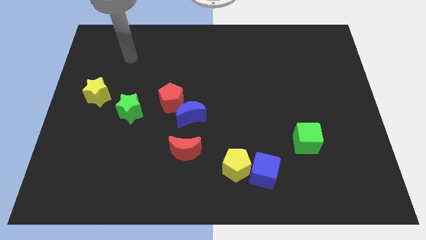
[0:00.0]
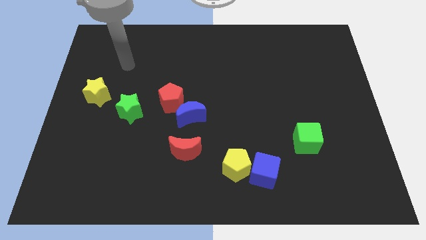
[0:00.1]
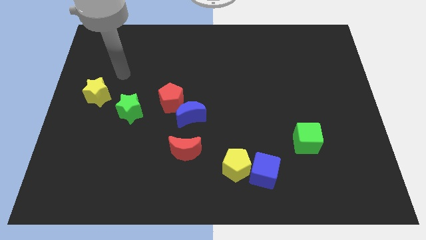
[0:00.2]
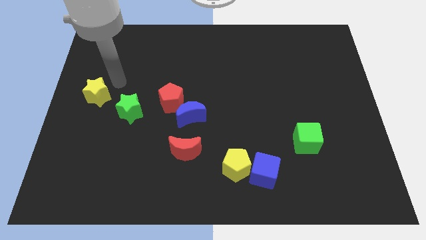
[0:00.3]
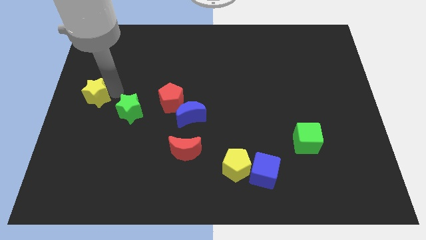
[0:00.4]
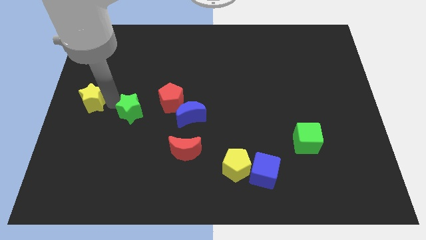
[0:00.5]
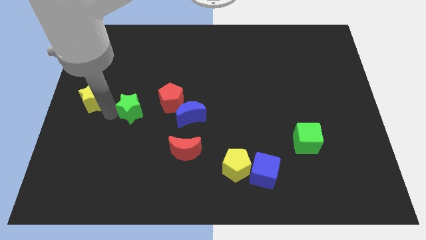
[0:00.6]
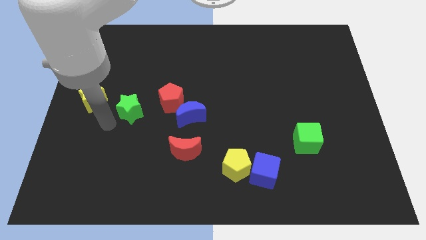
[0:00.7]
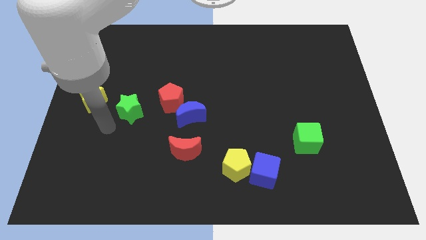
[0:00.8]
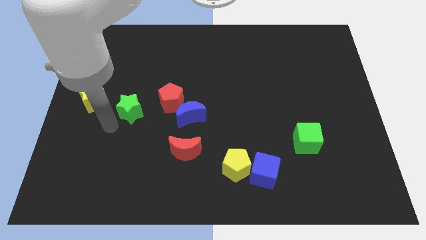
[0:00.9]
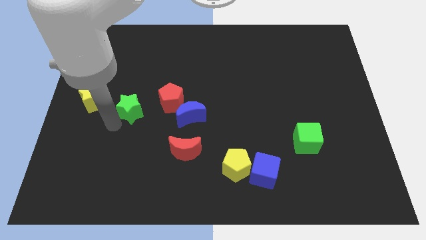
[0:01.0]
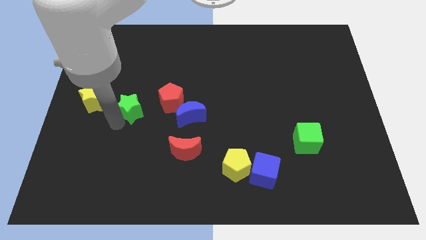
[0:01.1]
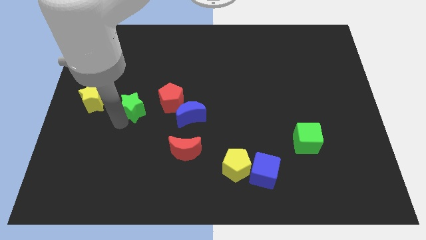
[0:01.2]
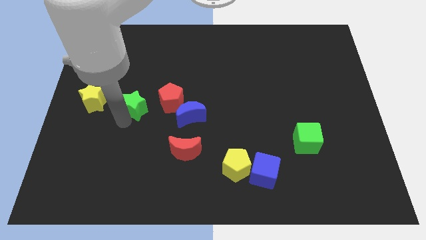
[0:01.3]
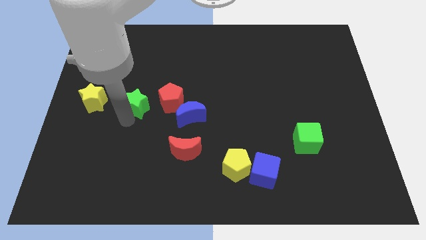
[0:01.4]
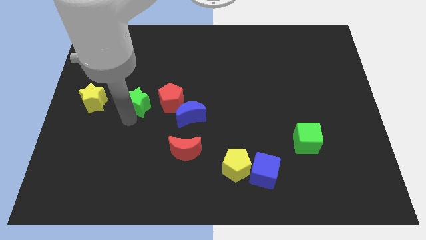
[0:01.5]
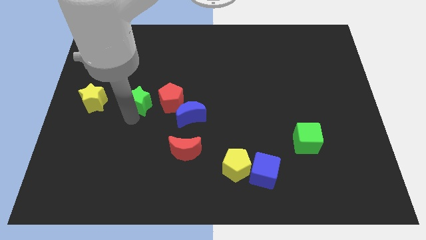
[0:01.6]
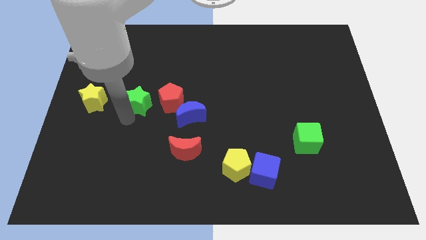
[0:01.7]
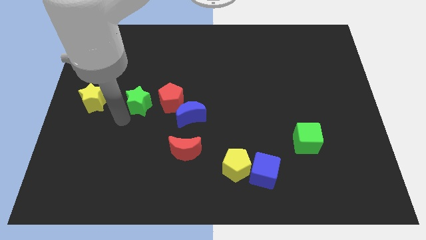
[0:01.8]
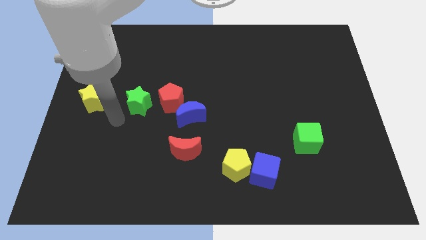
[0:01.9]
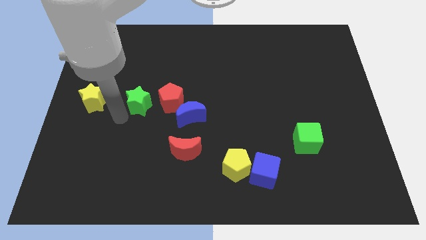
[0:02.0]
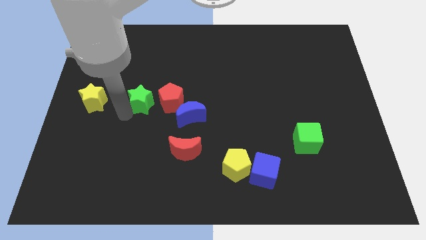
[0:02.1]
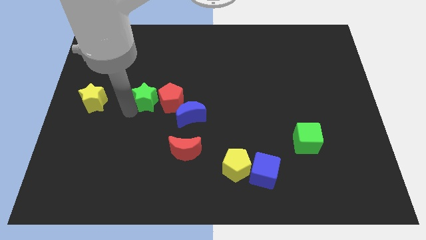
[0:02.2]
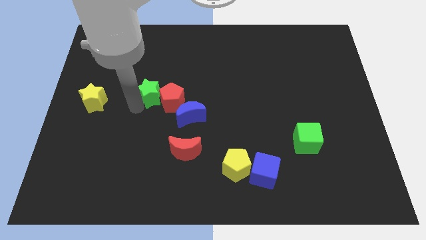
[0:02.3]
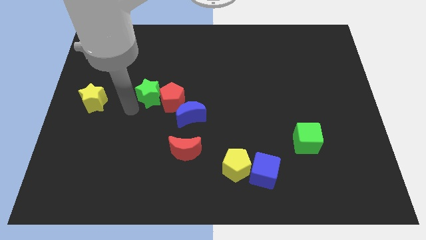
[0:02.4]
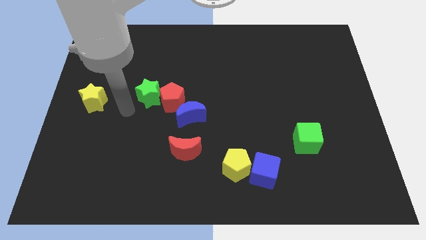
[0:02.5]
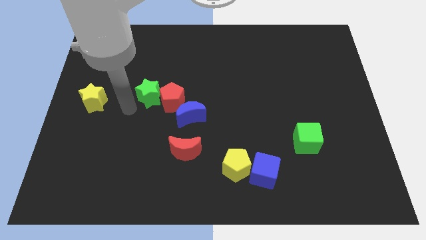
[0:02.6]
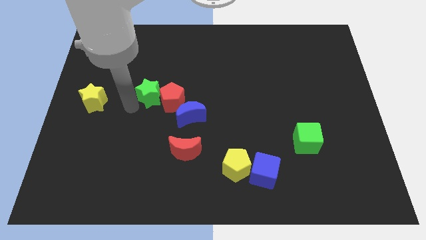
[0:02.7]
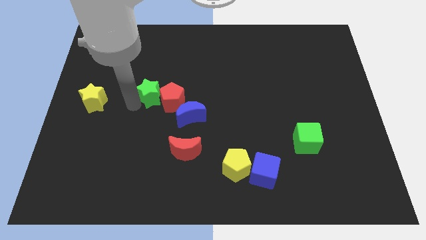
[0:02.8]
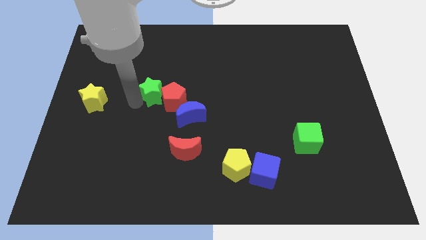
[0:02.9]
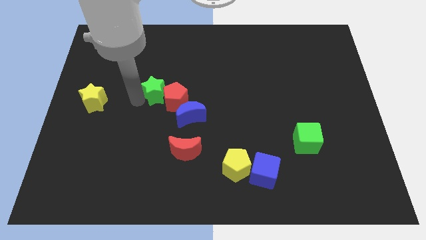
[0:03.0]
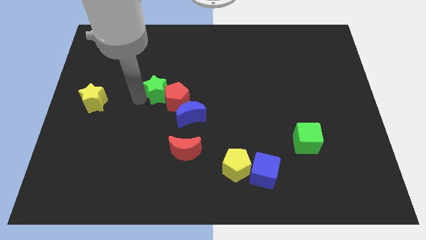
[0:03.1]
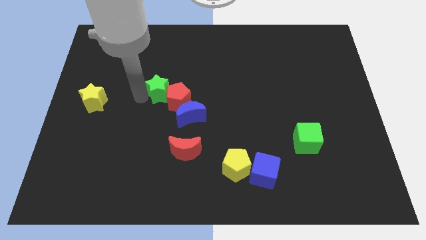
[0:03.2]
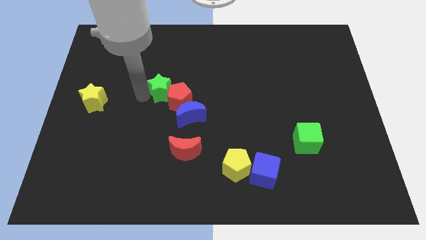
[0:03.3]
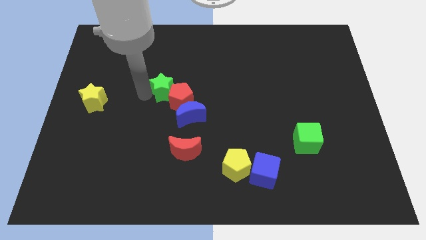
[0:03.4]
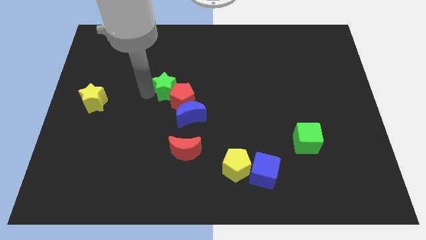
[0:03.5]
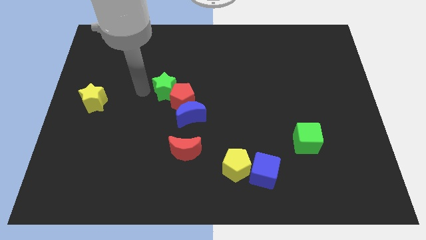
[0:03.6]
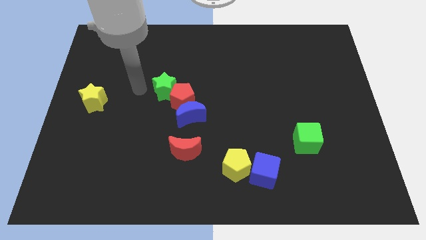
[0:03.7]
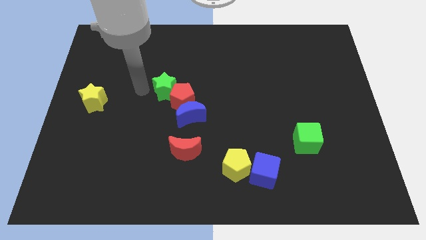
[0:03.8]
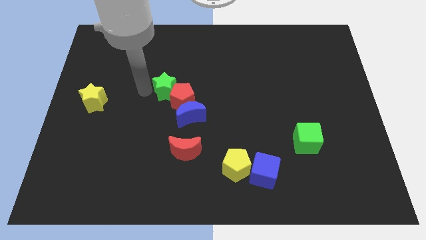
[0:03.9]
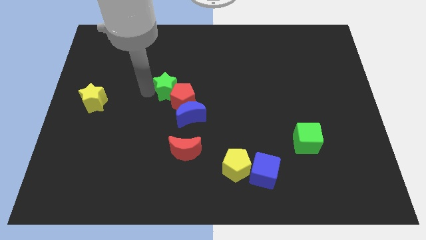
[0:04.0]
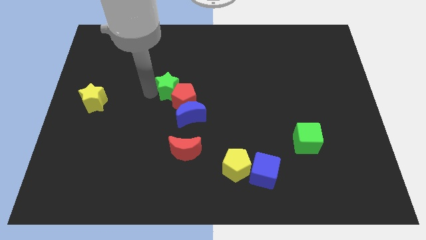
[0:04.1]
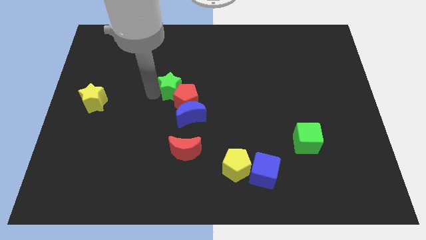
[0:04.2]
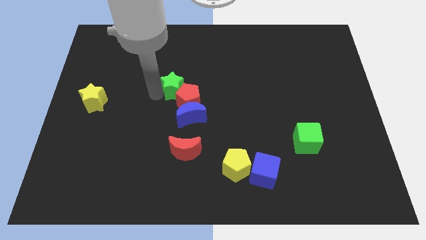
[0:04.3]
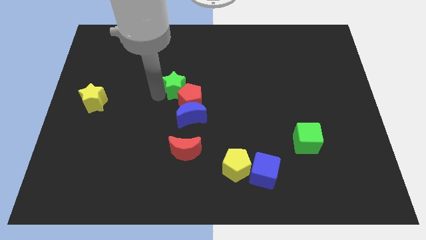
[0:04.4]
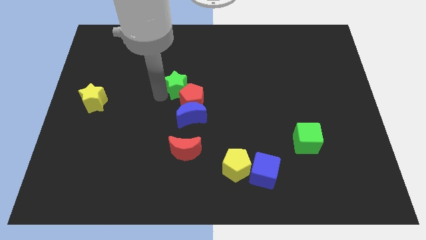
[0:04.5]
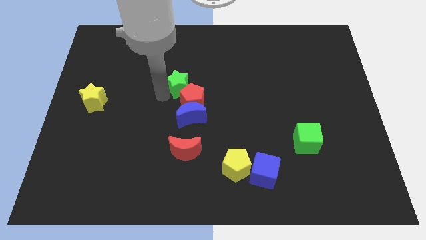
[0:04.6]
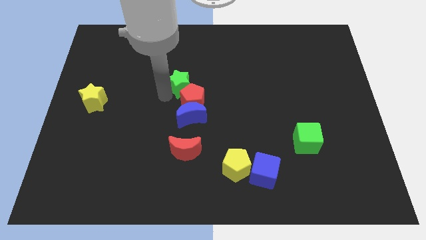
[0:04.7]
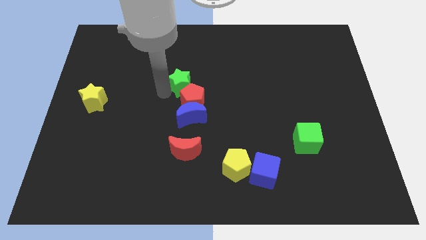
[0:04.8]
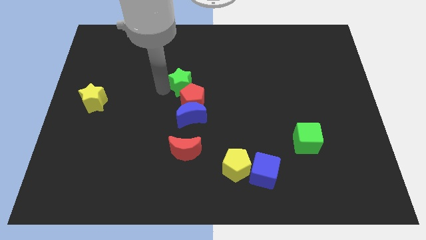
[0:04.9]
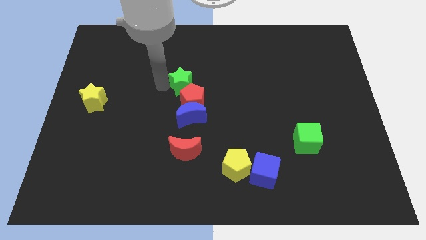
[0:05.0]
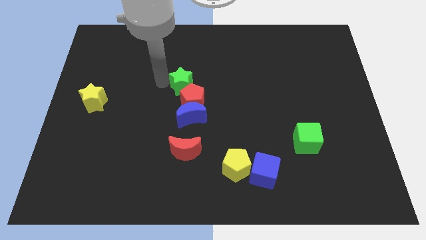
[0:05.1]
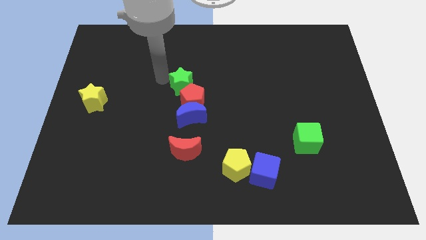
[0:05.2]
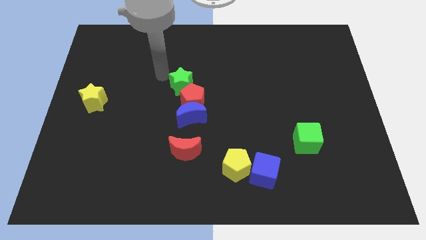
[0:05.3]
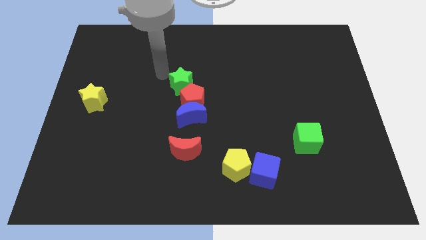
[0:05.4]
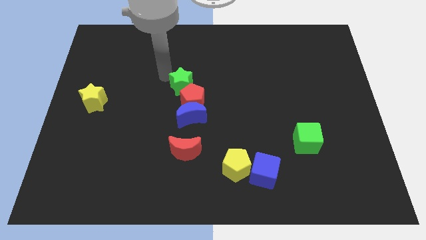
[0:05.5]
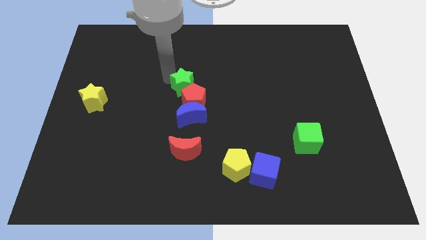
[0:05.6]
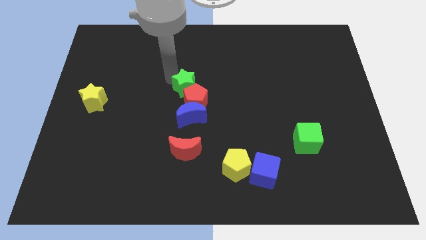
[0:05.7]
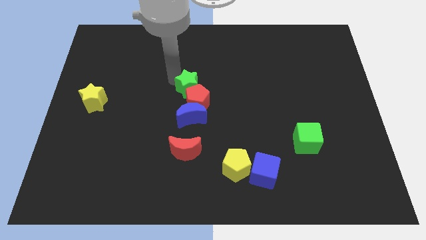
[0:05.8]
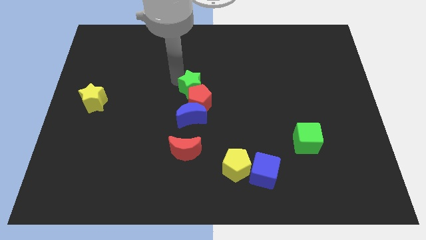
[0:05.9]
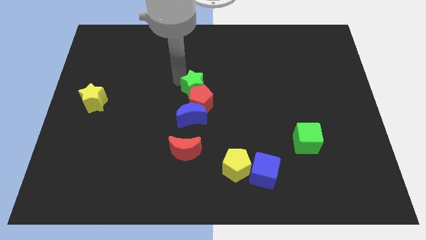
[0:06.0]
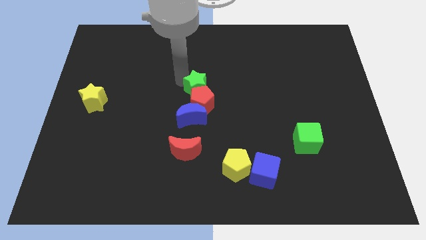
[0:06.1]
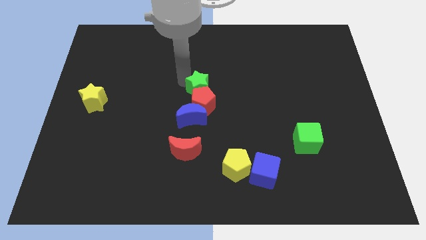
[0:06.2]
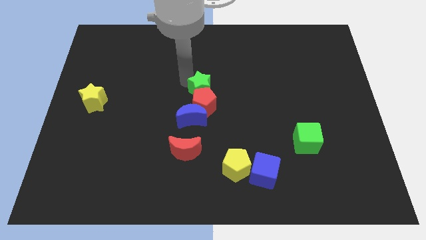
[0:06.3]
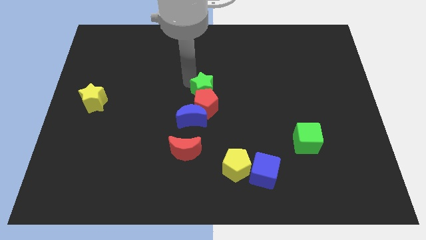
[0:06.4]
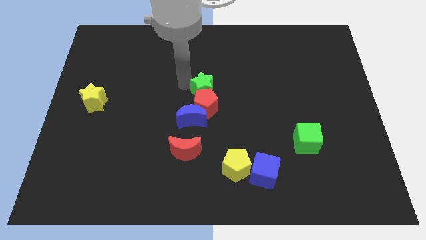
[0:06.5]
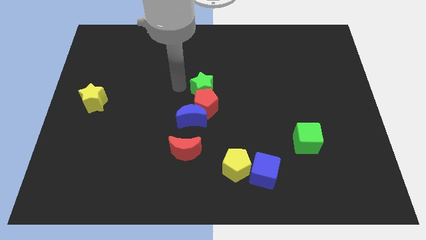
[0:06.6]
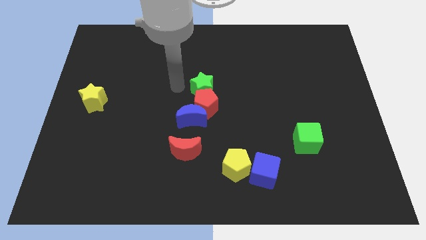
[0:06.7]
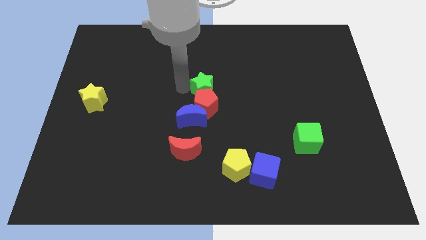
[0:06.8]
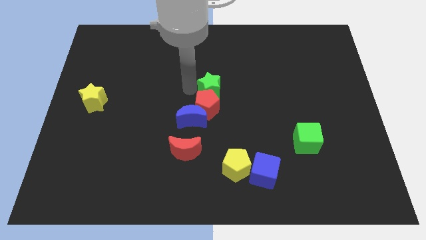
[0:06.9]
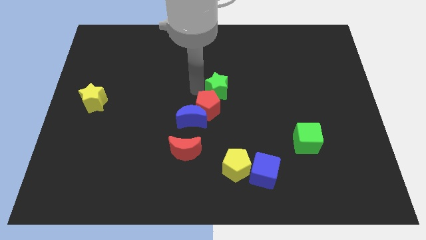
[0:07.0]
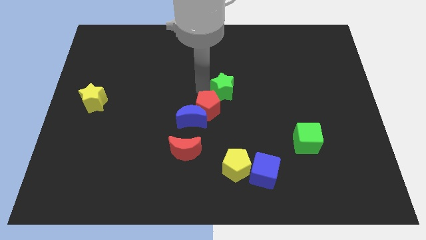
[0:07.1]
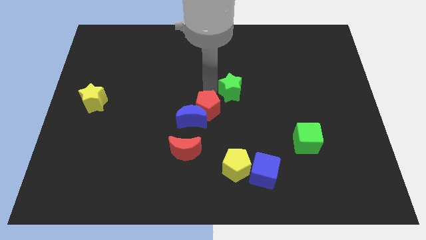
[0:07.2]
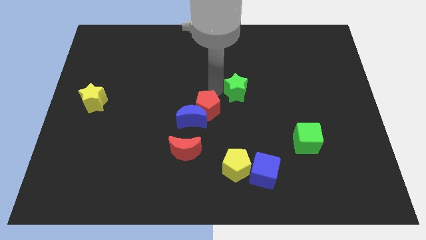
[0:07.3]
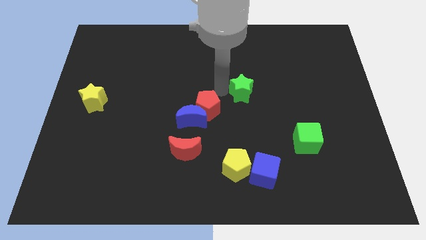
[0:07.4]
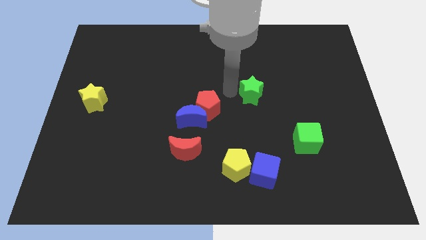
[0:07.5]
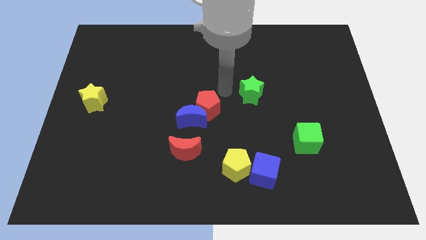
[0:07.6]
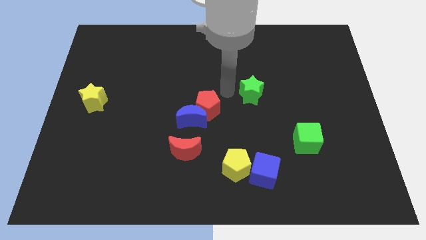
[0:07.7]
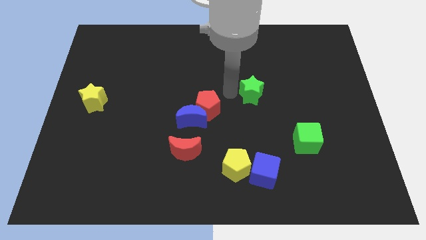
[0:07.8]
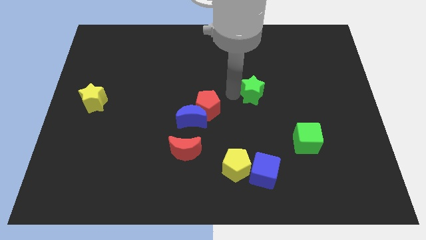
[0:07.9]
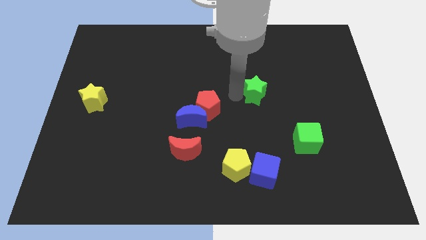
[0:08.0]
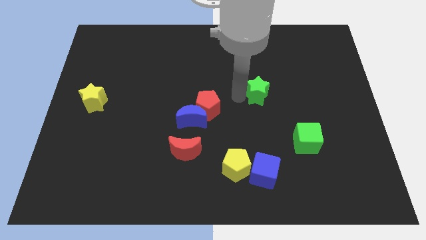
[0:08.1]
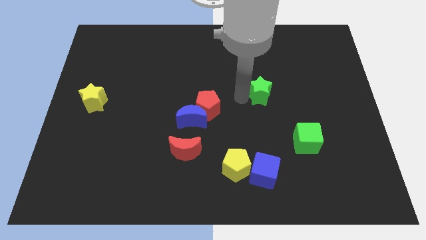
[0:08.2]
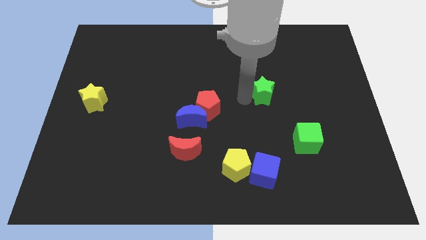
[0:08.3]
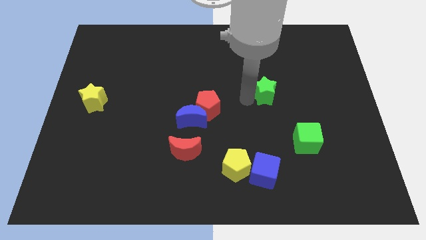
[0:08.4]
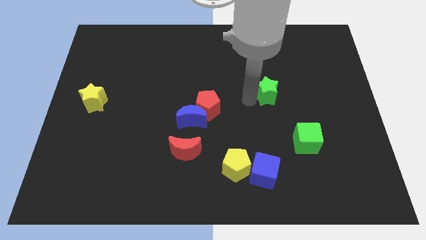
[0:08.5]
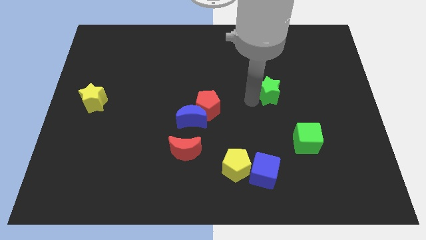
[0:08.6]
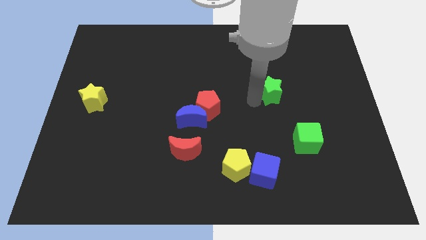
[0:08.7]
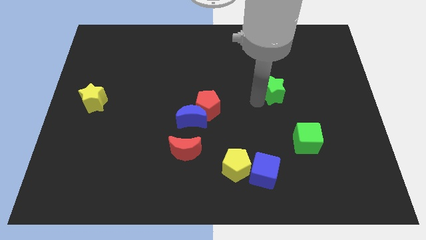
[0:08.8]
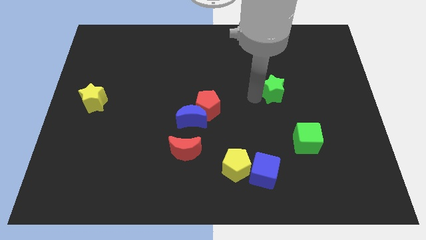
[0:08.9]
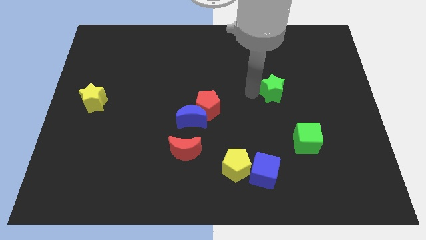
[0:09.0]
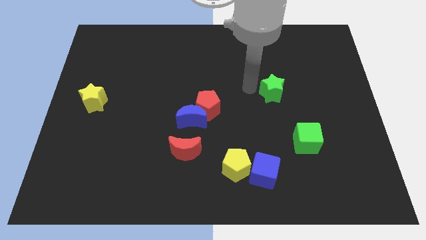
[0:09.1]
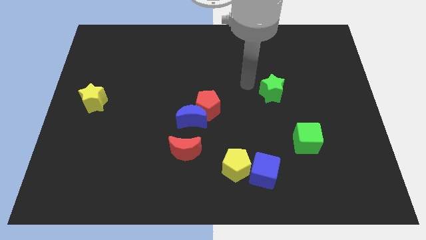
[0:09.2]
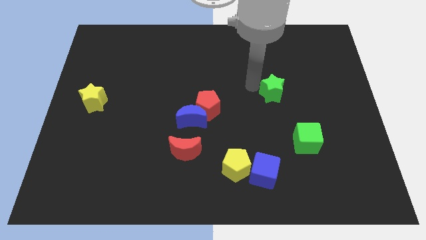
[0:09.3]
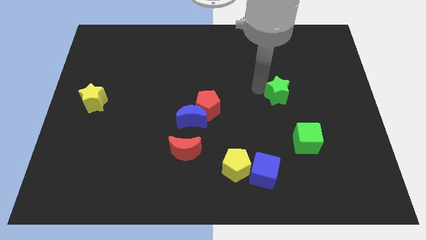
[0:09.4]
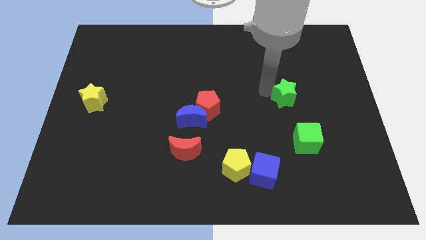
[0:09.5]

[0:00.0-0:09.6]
slide the green star above the green cube
